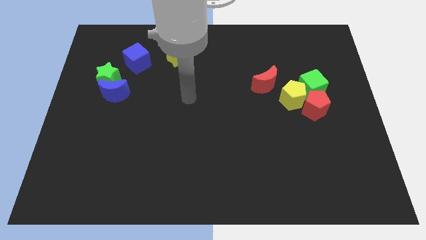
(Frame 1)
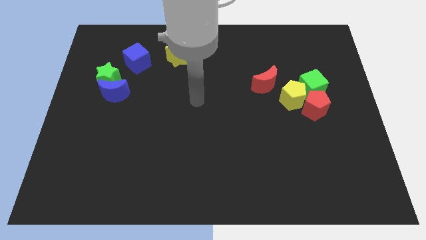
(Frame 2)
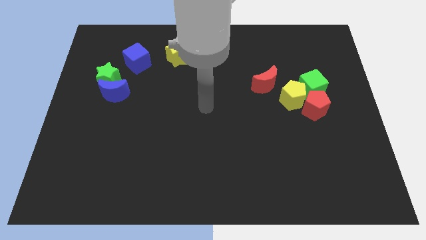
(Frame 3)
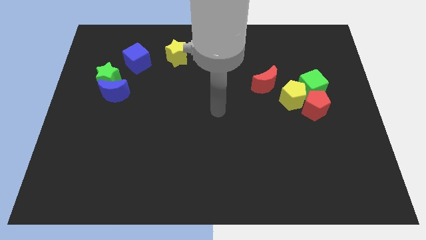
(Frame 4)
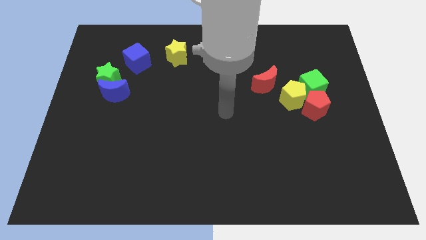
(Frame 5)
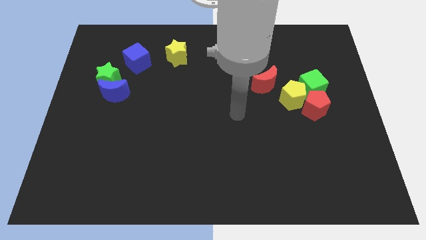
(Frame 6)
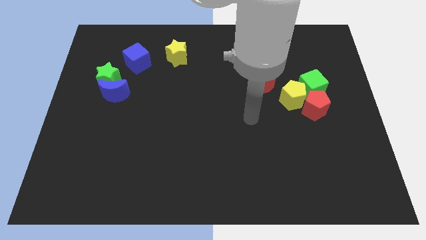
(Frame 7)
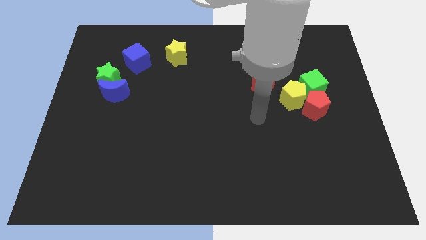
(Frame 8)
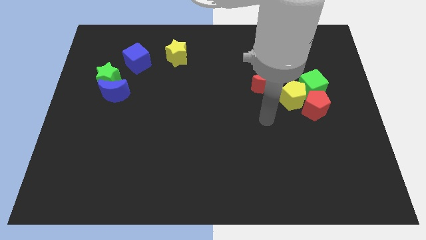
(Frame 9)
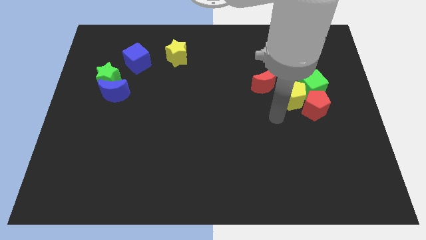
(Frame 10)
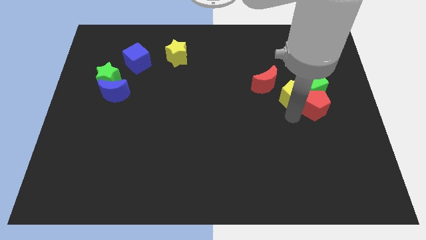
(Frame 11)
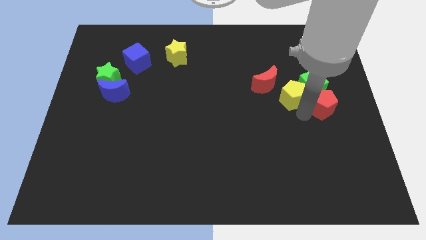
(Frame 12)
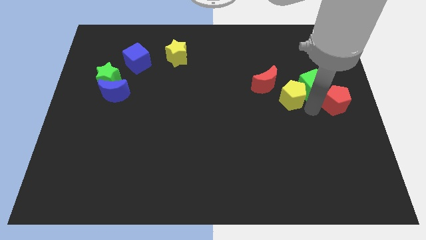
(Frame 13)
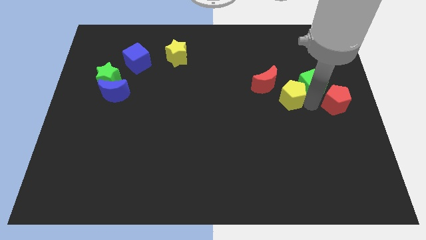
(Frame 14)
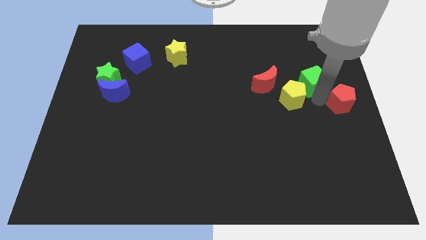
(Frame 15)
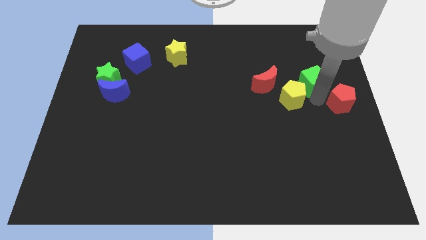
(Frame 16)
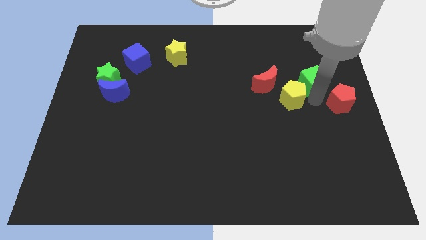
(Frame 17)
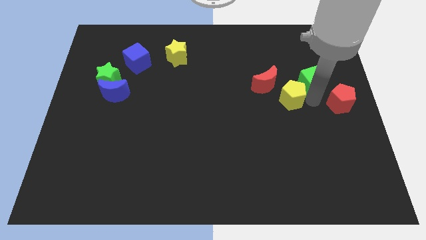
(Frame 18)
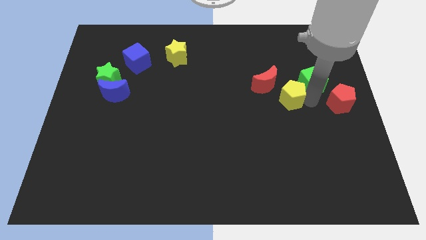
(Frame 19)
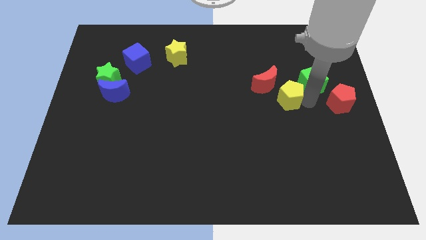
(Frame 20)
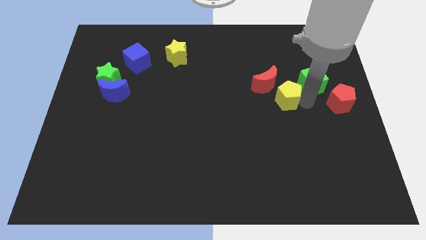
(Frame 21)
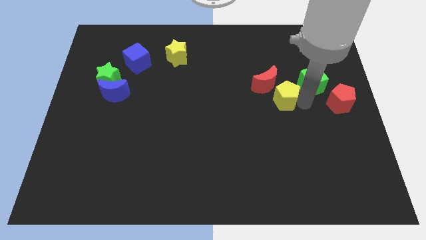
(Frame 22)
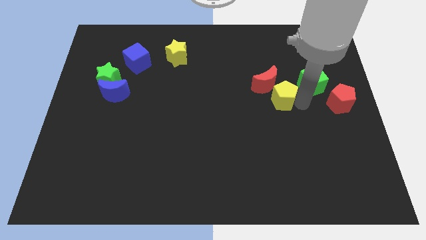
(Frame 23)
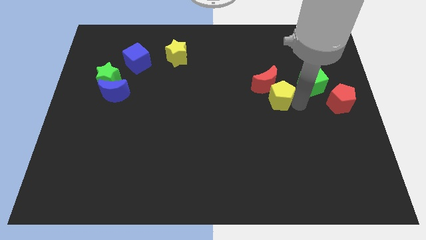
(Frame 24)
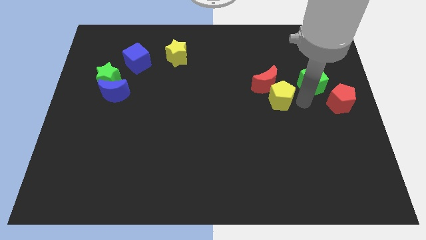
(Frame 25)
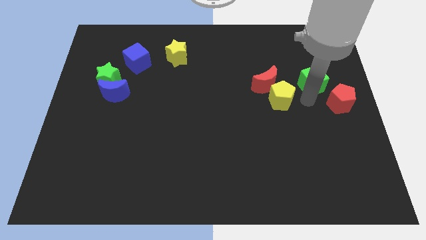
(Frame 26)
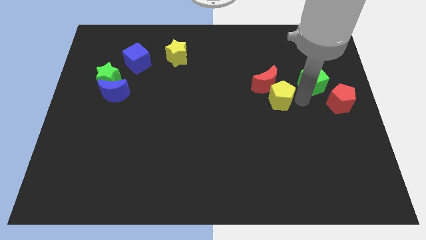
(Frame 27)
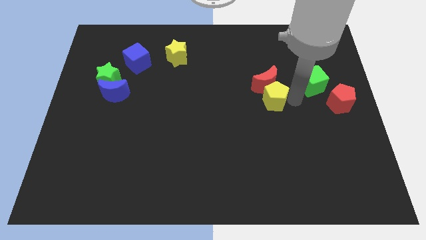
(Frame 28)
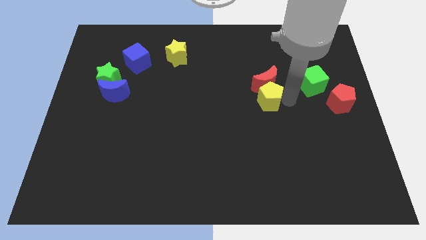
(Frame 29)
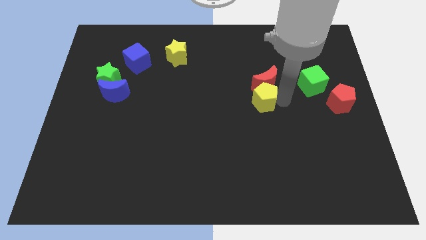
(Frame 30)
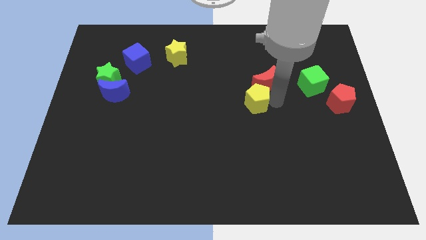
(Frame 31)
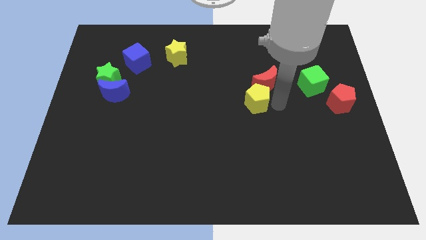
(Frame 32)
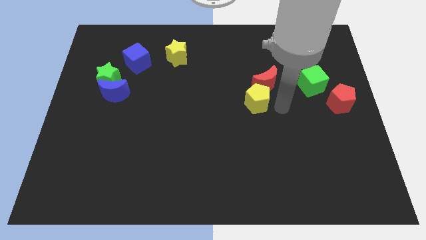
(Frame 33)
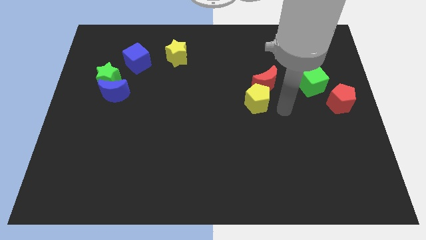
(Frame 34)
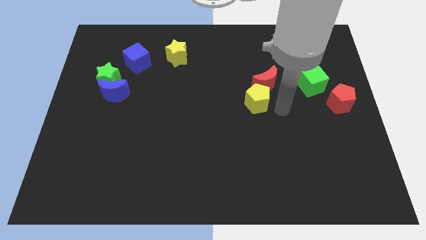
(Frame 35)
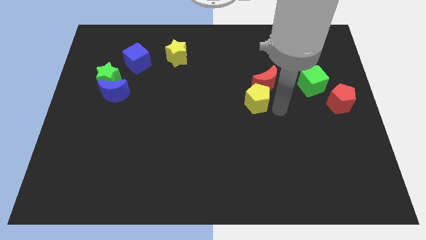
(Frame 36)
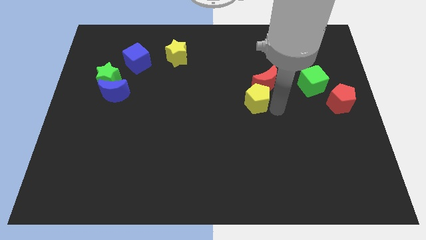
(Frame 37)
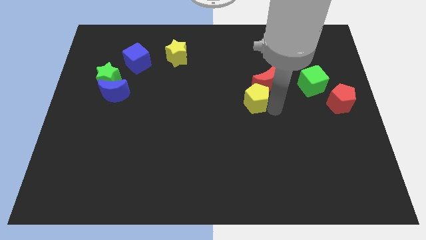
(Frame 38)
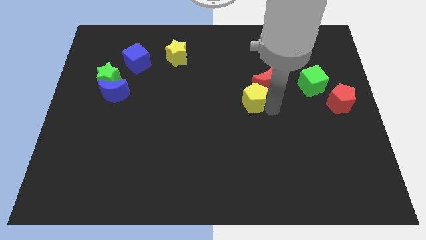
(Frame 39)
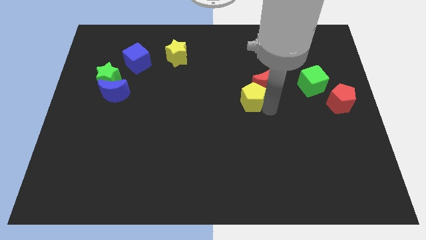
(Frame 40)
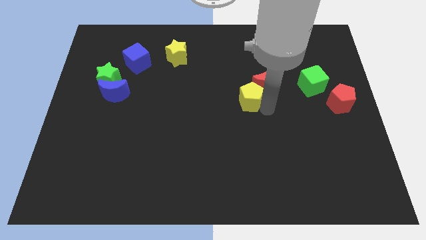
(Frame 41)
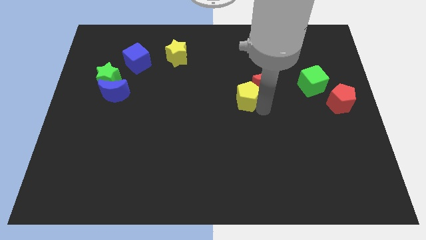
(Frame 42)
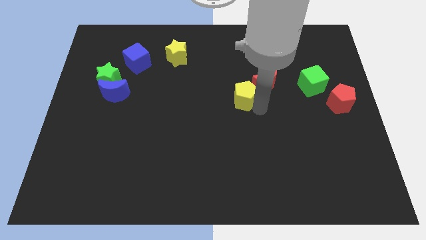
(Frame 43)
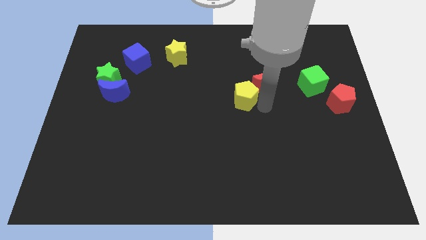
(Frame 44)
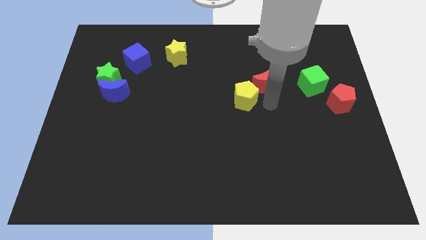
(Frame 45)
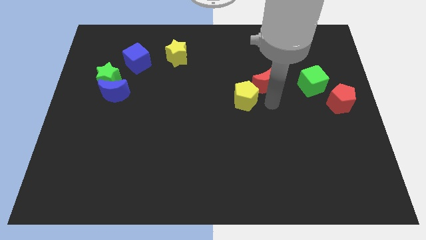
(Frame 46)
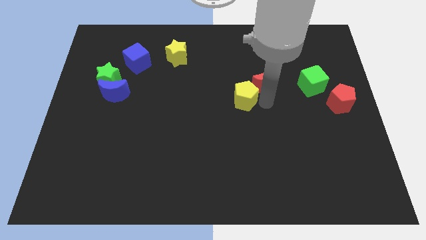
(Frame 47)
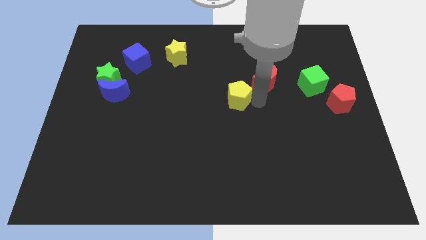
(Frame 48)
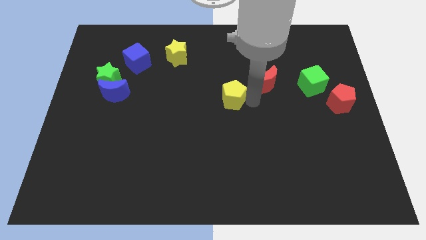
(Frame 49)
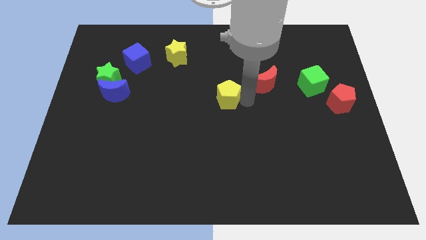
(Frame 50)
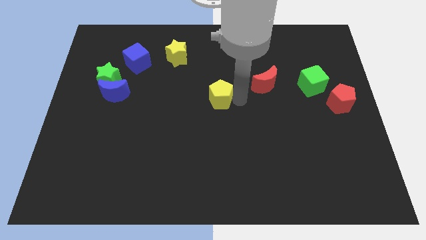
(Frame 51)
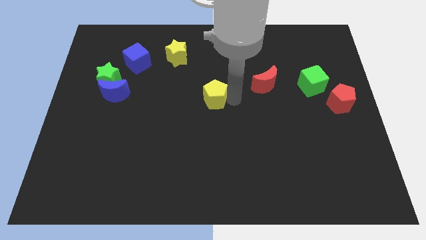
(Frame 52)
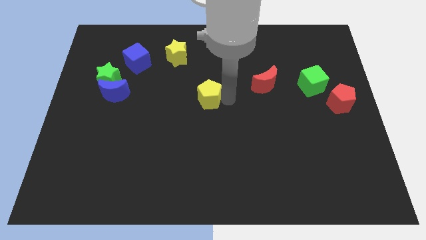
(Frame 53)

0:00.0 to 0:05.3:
move the yellow pentagon to the left

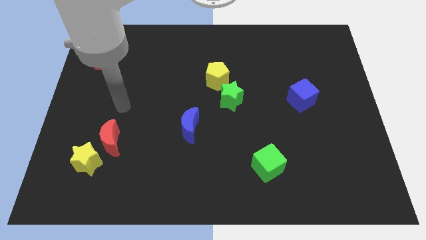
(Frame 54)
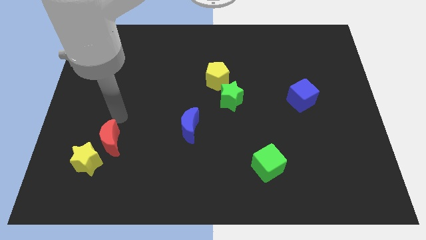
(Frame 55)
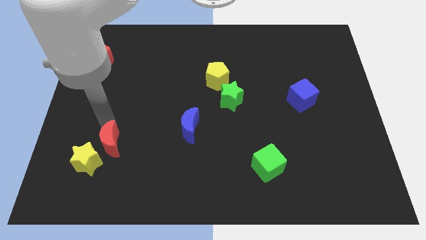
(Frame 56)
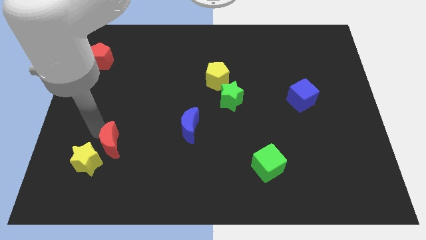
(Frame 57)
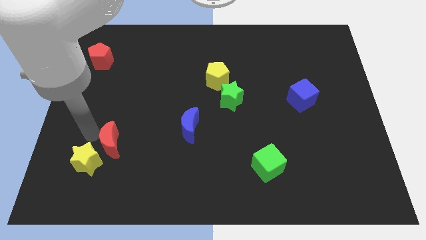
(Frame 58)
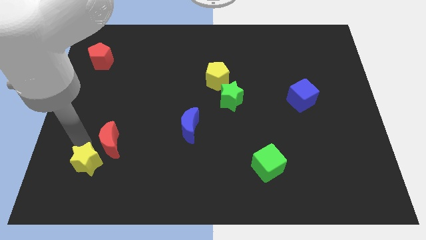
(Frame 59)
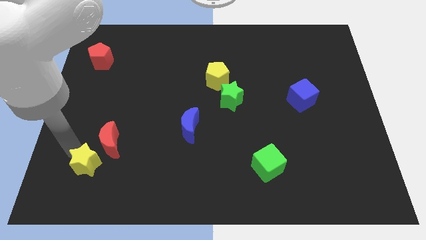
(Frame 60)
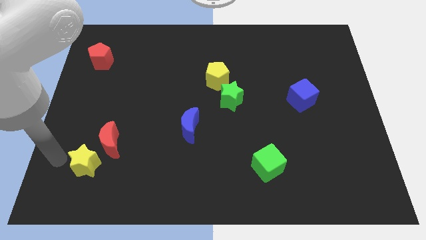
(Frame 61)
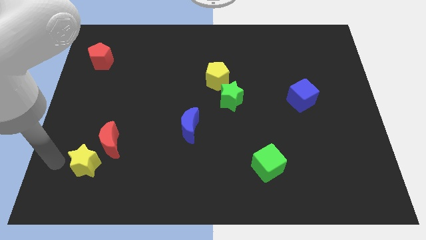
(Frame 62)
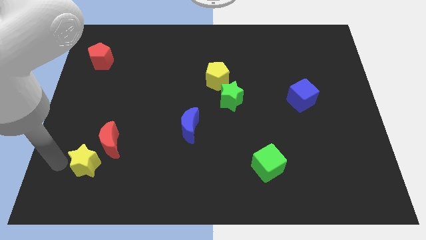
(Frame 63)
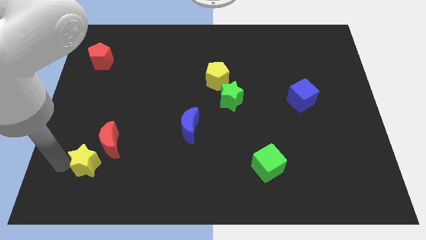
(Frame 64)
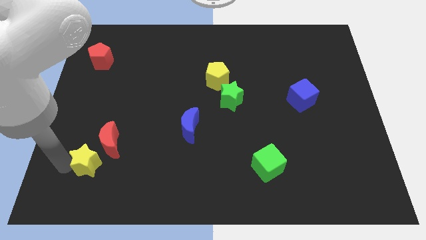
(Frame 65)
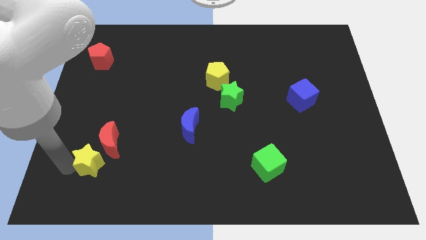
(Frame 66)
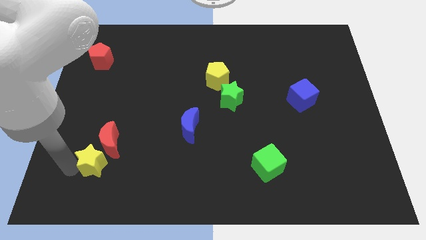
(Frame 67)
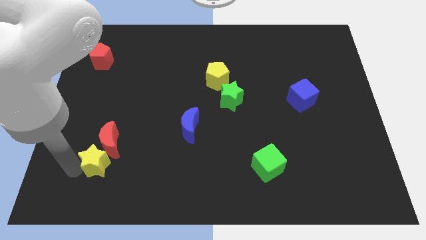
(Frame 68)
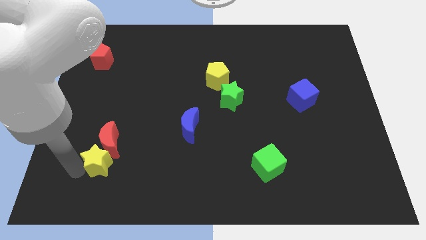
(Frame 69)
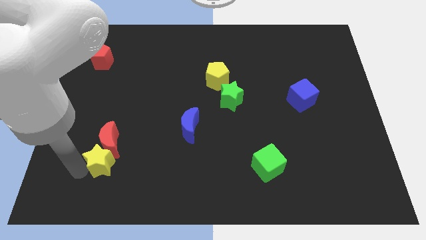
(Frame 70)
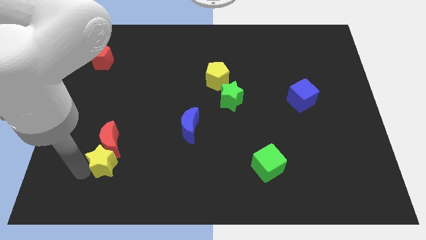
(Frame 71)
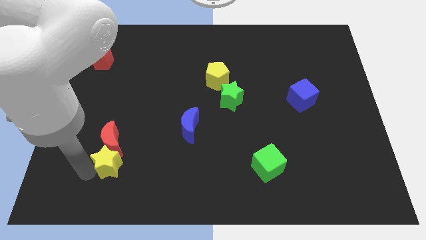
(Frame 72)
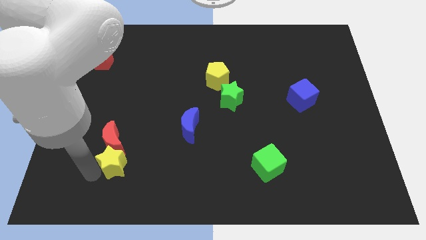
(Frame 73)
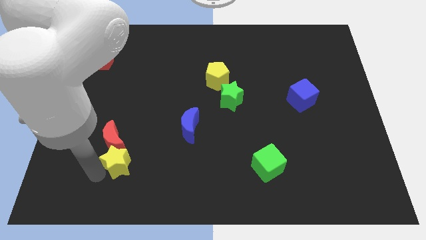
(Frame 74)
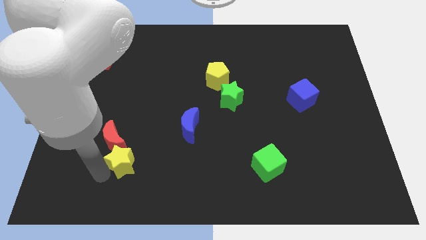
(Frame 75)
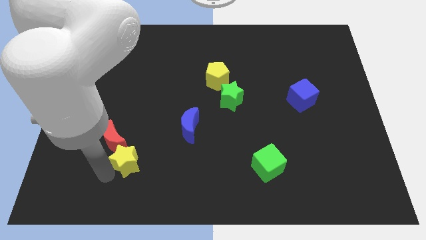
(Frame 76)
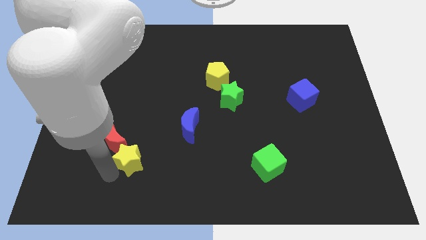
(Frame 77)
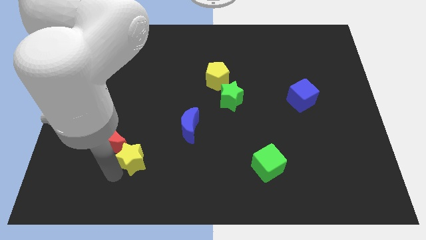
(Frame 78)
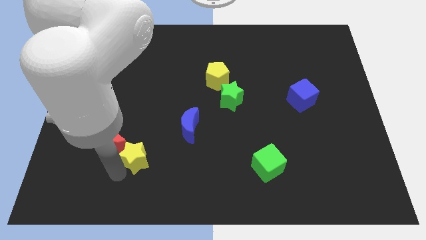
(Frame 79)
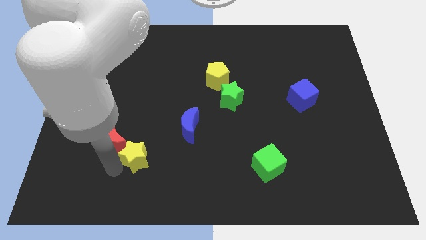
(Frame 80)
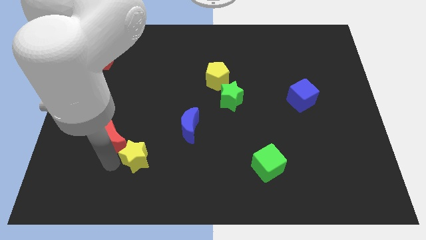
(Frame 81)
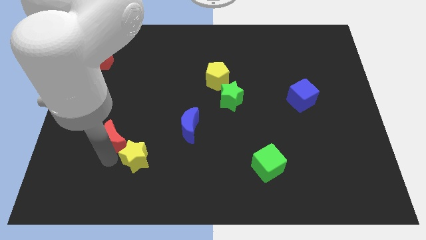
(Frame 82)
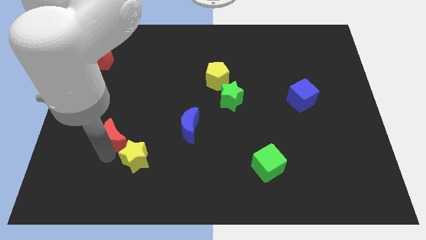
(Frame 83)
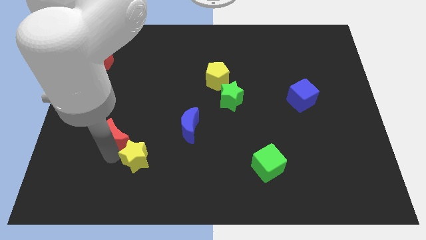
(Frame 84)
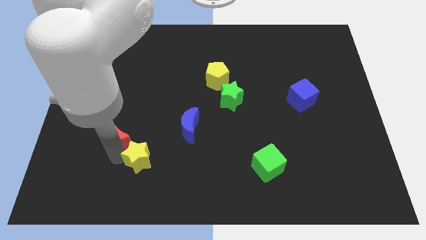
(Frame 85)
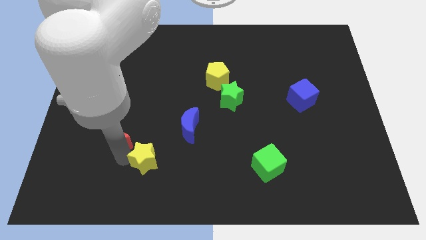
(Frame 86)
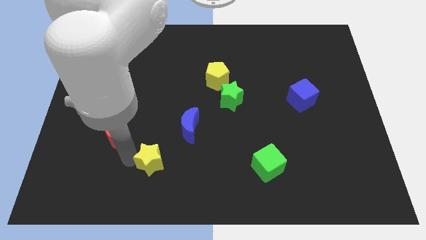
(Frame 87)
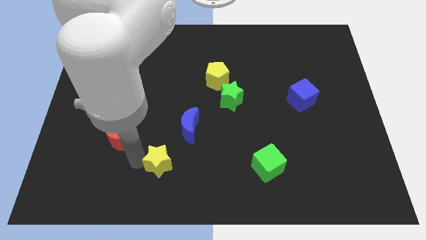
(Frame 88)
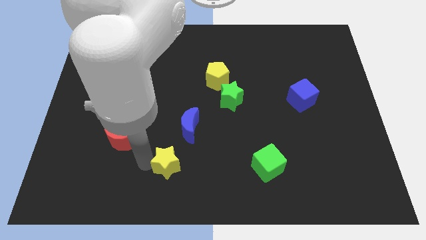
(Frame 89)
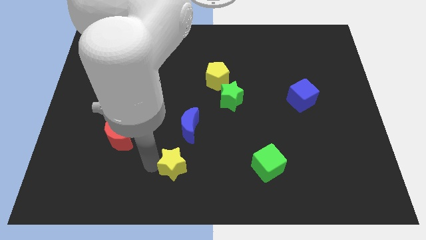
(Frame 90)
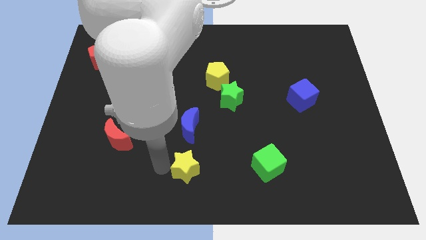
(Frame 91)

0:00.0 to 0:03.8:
move the yellow star to the right
